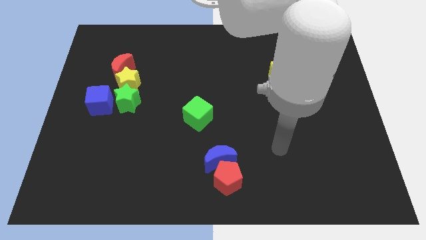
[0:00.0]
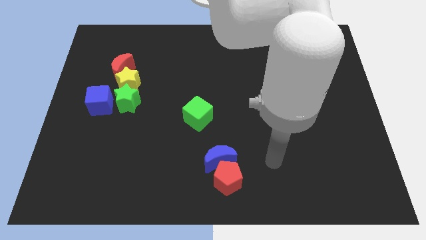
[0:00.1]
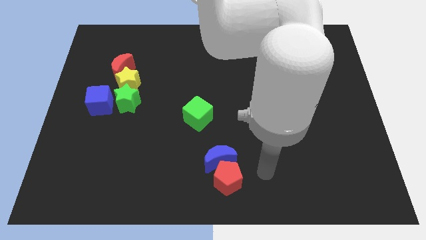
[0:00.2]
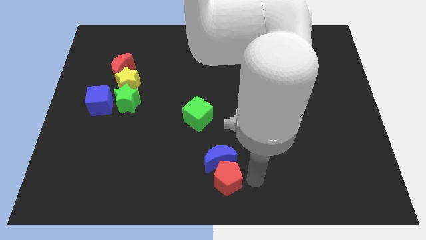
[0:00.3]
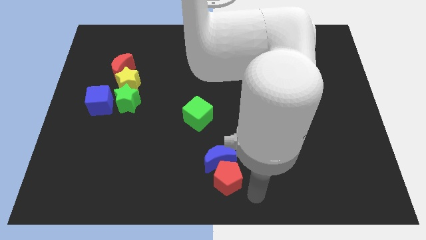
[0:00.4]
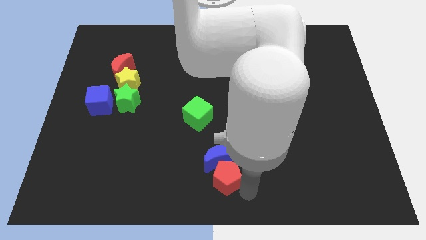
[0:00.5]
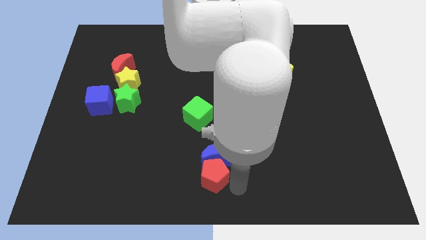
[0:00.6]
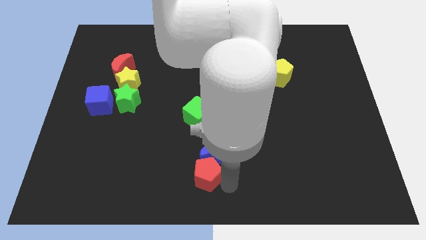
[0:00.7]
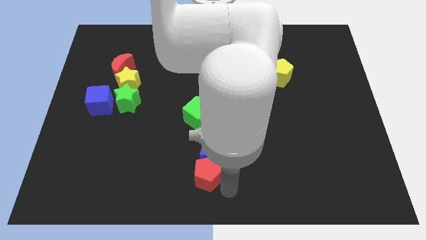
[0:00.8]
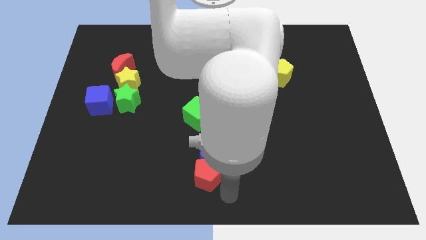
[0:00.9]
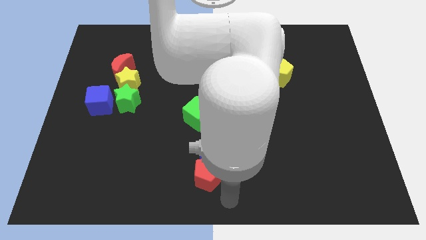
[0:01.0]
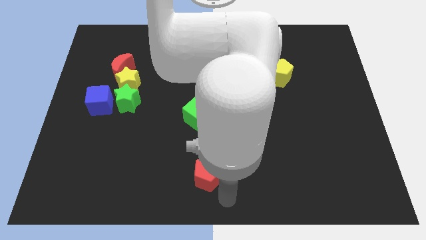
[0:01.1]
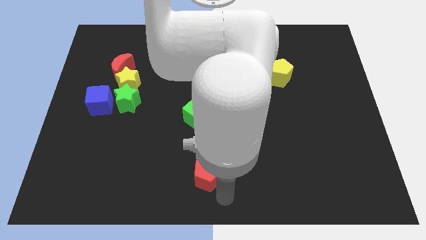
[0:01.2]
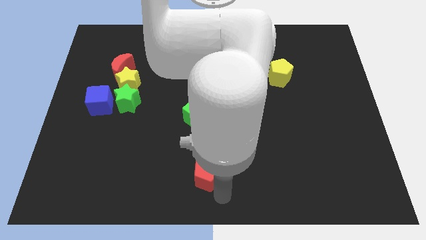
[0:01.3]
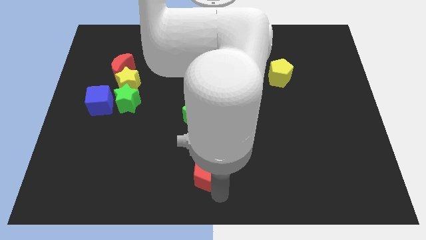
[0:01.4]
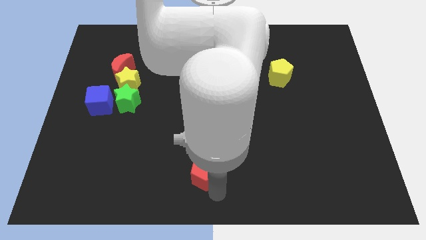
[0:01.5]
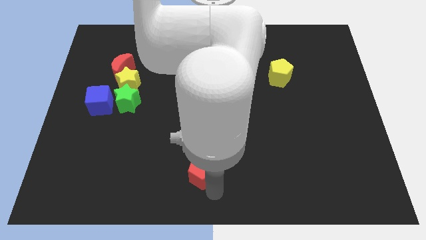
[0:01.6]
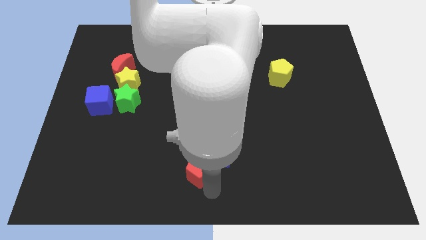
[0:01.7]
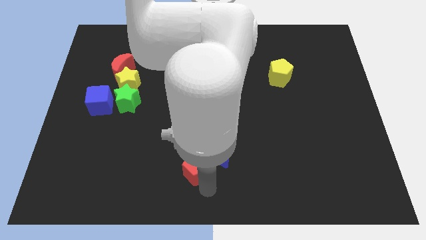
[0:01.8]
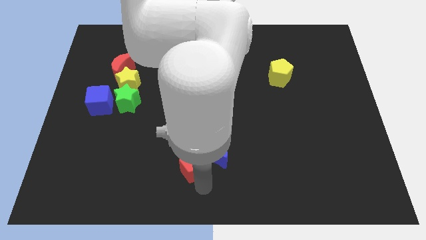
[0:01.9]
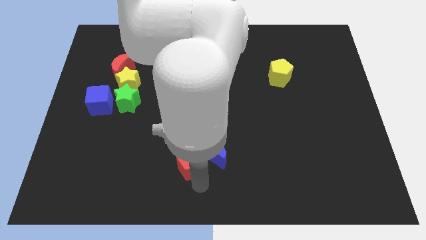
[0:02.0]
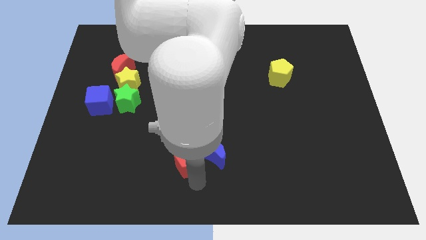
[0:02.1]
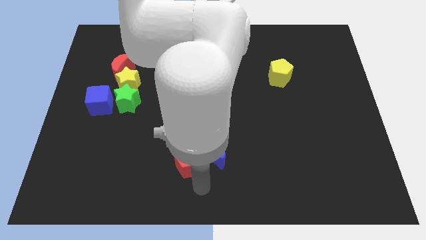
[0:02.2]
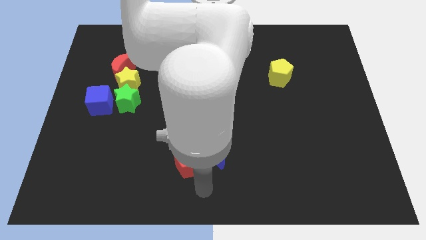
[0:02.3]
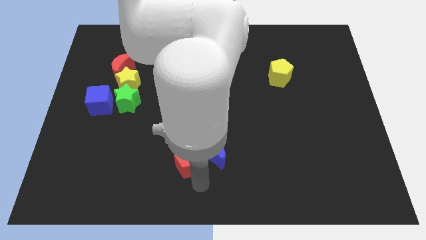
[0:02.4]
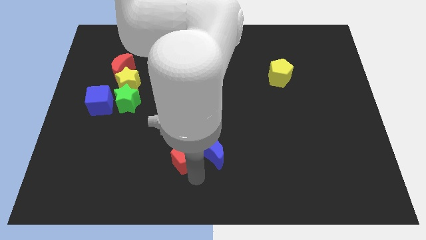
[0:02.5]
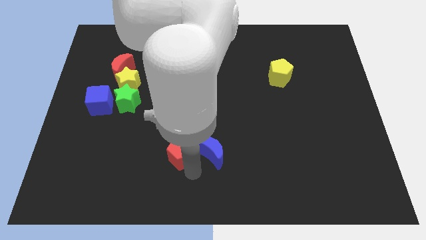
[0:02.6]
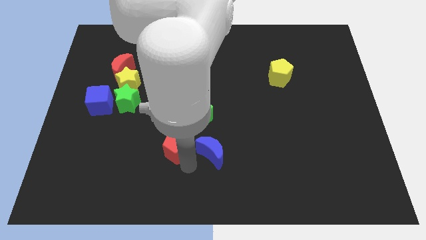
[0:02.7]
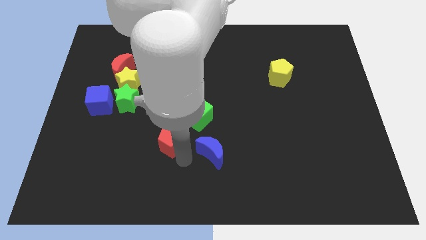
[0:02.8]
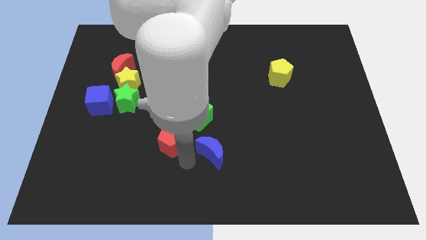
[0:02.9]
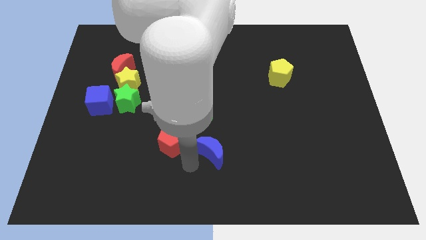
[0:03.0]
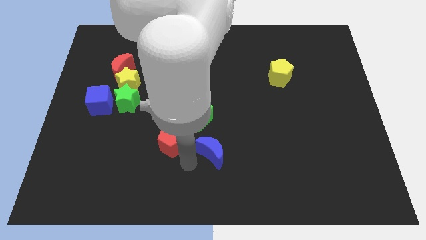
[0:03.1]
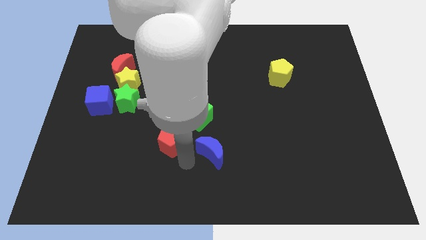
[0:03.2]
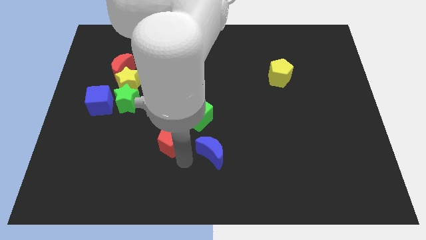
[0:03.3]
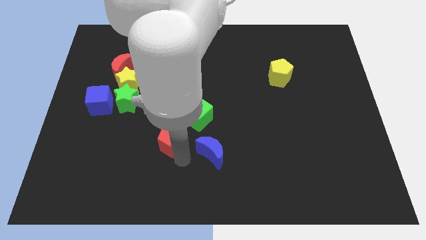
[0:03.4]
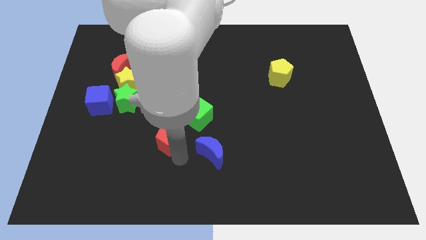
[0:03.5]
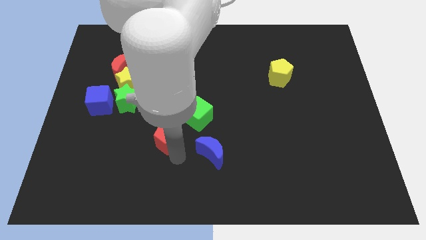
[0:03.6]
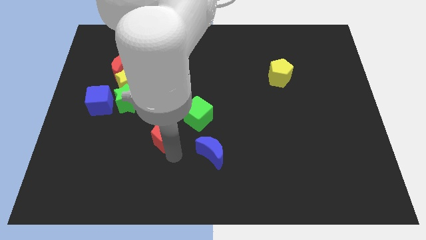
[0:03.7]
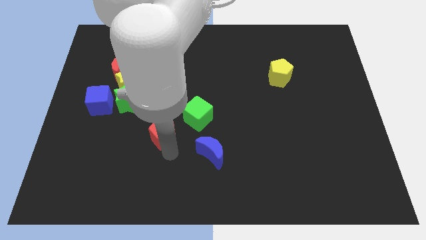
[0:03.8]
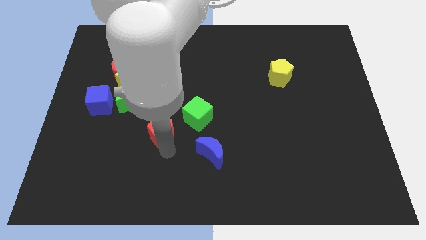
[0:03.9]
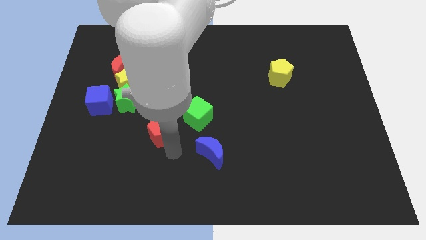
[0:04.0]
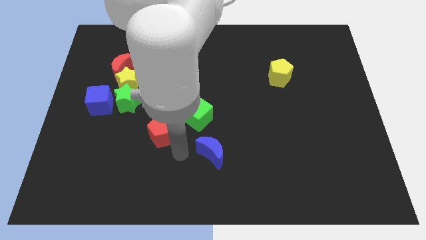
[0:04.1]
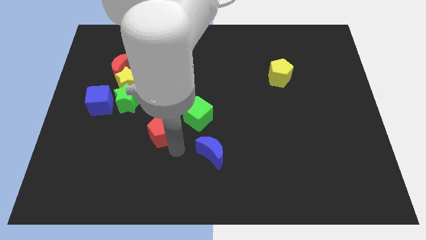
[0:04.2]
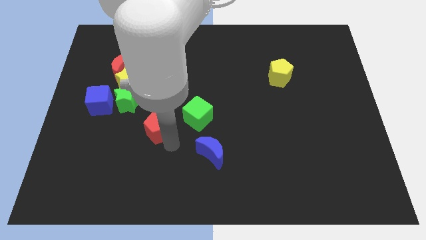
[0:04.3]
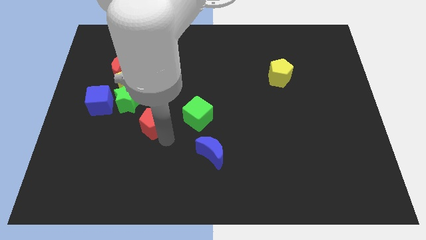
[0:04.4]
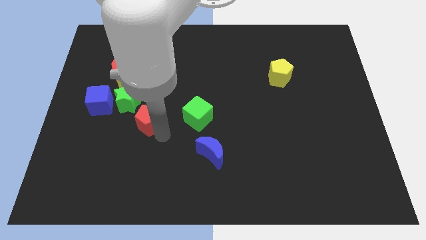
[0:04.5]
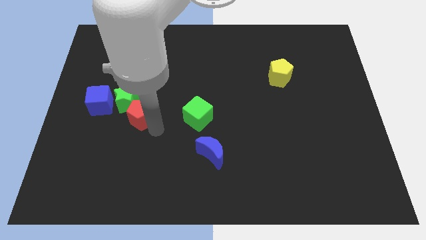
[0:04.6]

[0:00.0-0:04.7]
put the red pentagon next to the green star

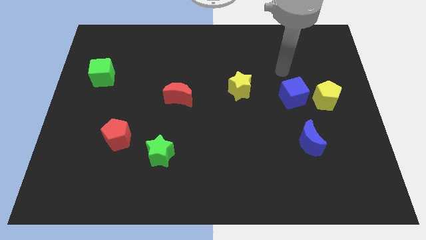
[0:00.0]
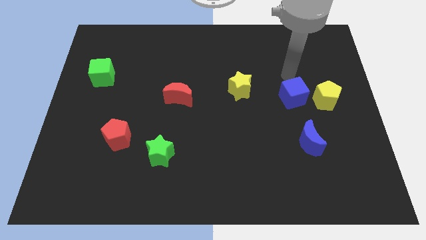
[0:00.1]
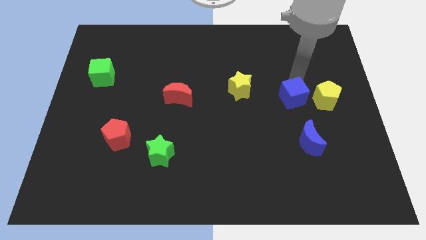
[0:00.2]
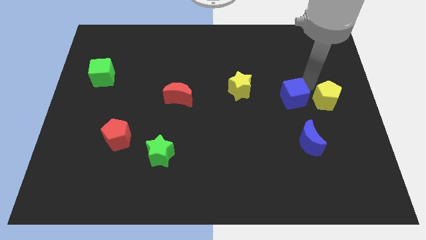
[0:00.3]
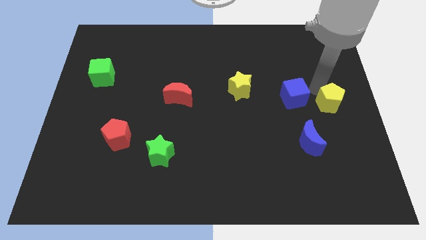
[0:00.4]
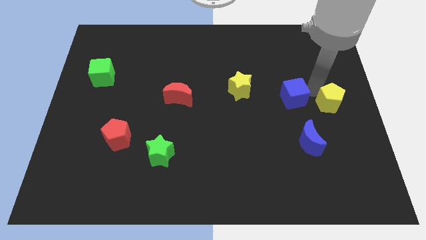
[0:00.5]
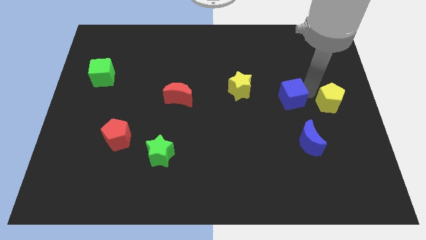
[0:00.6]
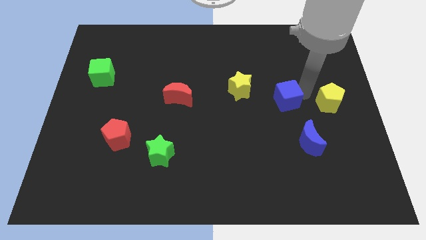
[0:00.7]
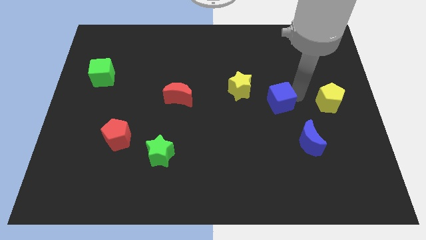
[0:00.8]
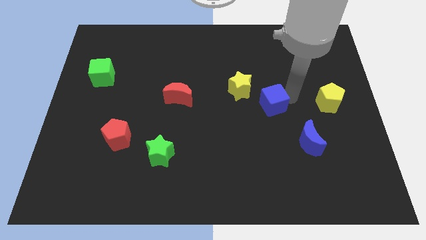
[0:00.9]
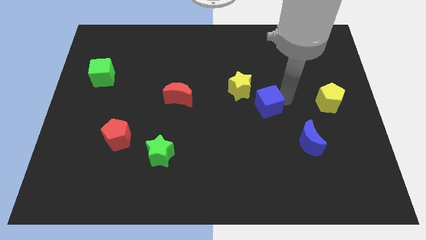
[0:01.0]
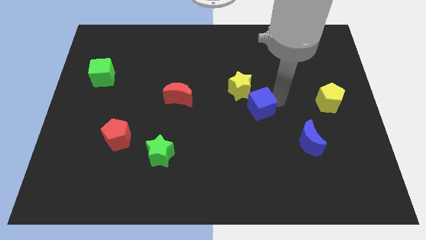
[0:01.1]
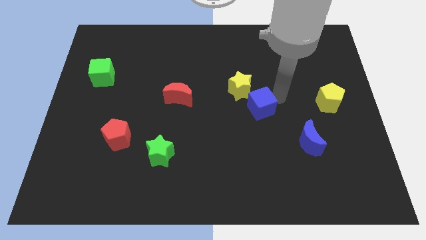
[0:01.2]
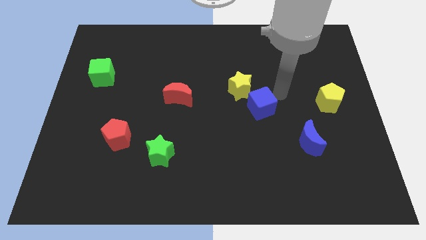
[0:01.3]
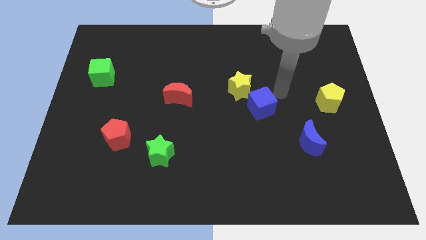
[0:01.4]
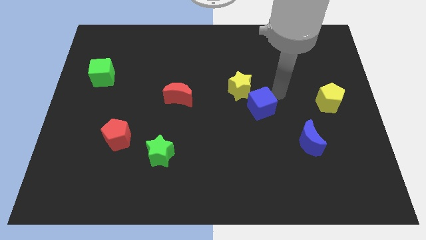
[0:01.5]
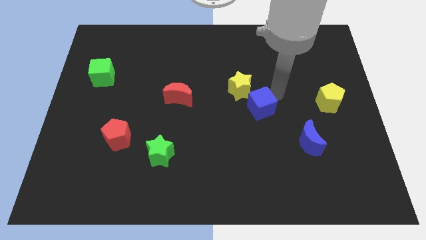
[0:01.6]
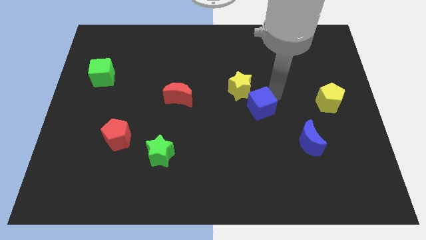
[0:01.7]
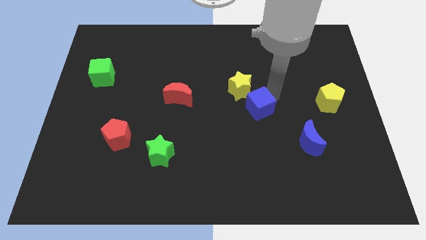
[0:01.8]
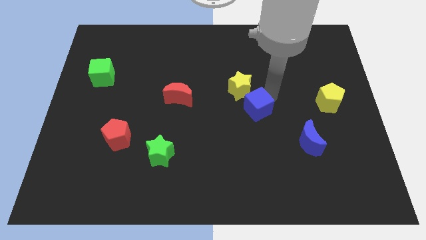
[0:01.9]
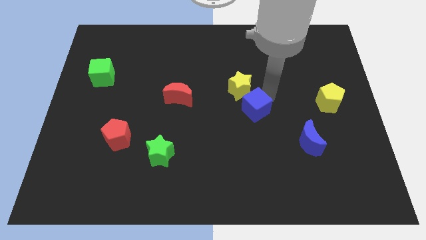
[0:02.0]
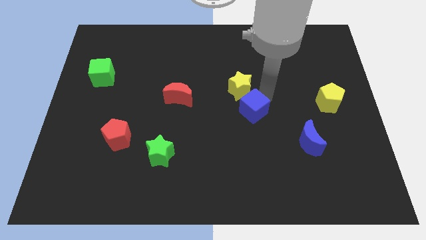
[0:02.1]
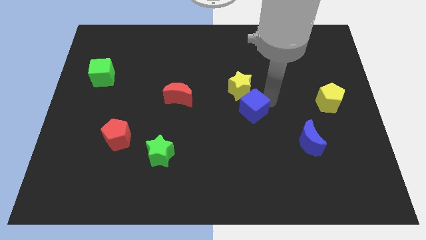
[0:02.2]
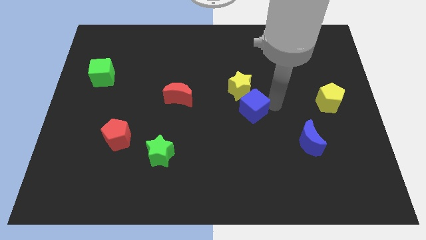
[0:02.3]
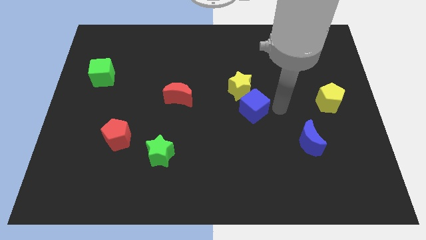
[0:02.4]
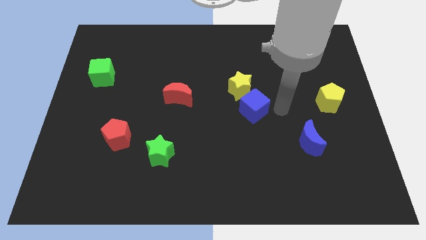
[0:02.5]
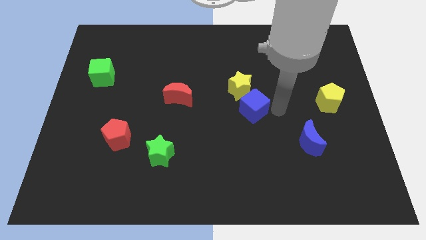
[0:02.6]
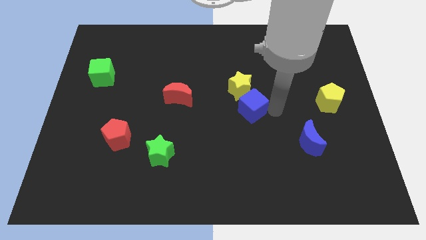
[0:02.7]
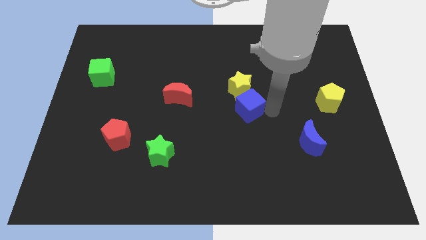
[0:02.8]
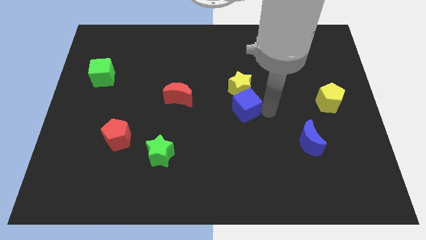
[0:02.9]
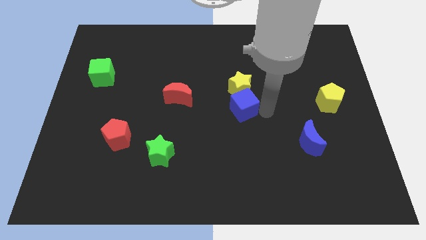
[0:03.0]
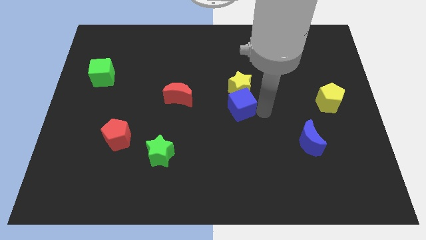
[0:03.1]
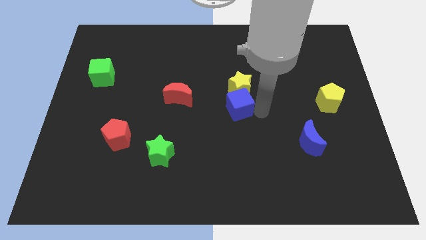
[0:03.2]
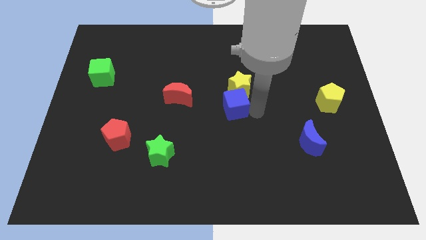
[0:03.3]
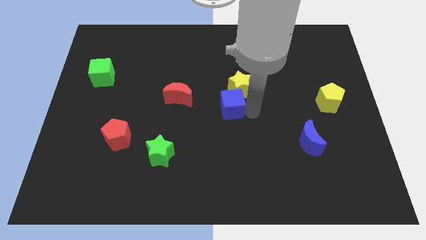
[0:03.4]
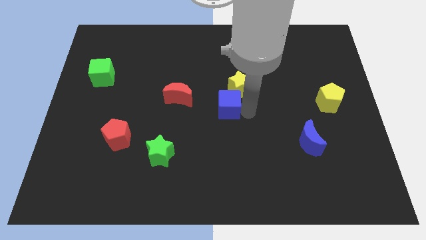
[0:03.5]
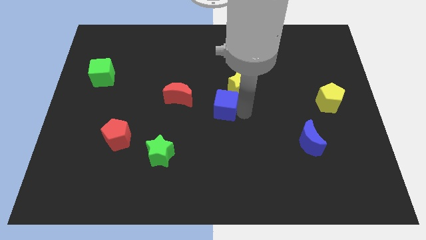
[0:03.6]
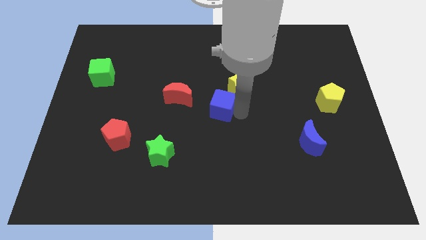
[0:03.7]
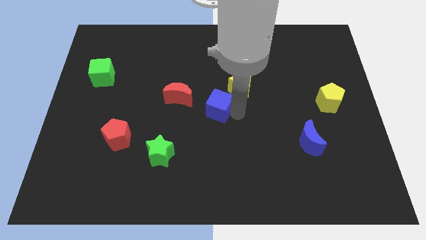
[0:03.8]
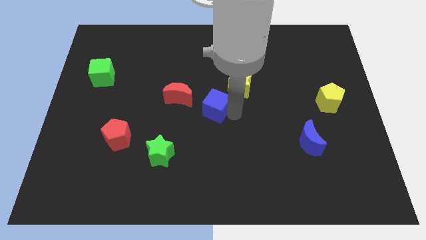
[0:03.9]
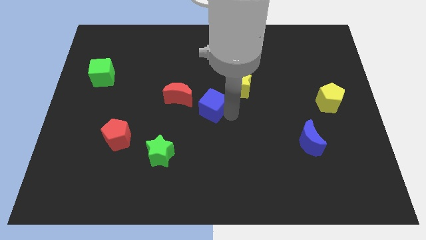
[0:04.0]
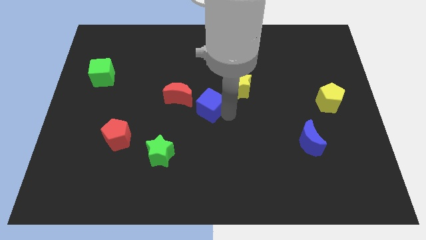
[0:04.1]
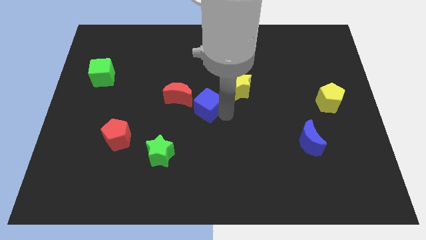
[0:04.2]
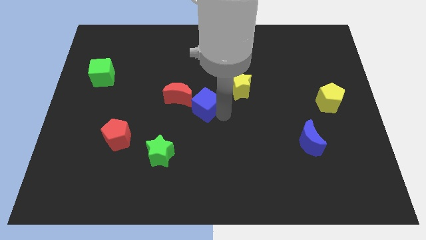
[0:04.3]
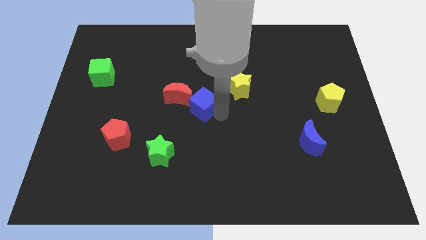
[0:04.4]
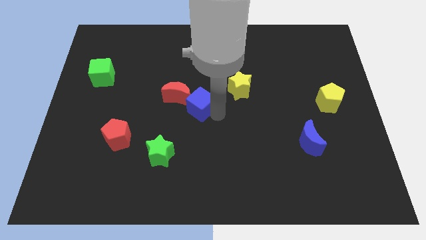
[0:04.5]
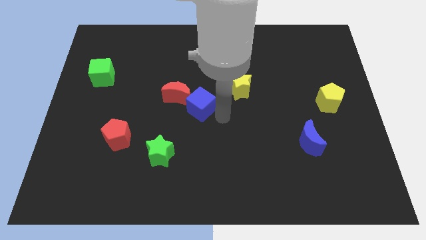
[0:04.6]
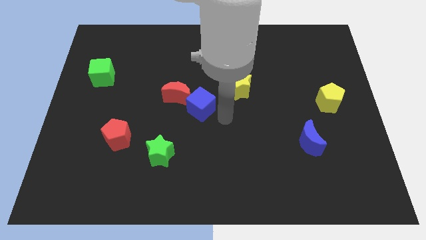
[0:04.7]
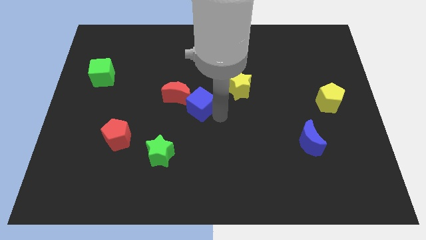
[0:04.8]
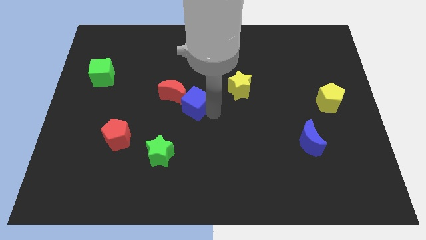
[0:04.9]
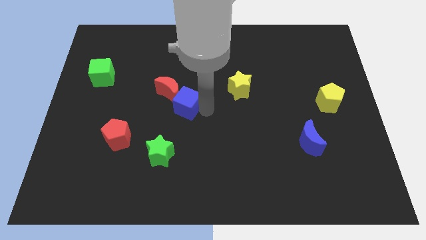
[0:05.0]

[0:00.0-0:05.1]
move the blue cube close to the red moon
